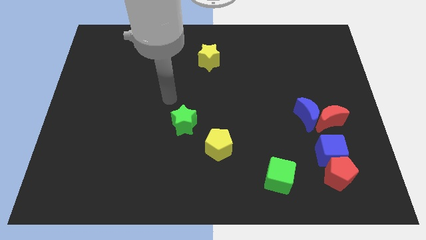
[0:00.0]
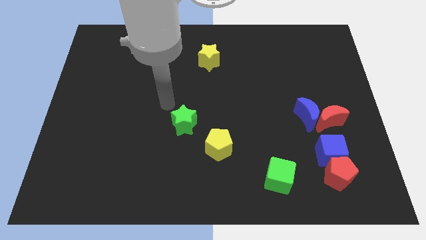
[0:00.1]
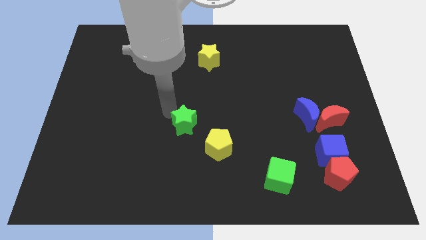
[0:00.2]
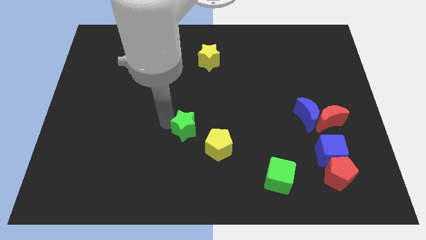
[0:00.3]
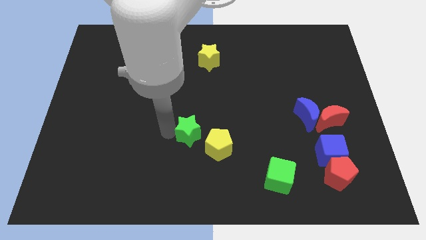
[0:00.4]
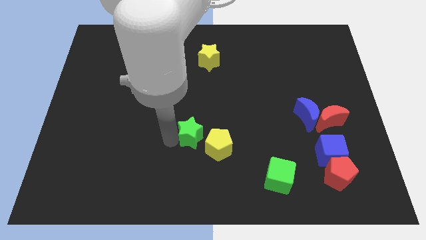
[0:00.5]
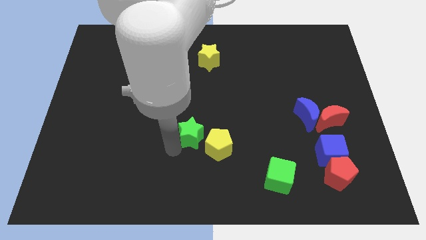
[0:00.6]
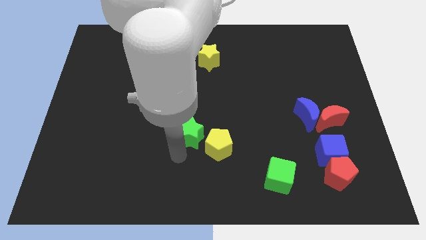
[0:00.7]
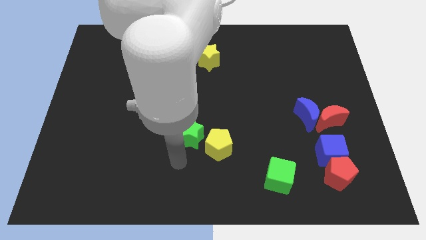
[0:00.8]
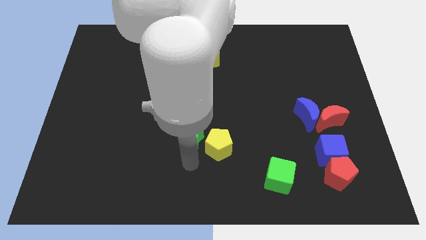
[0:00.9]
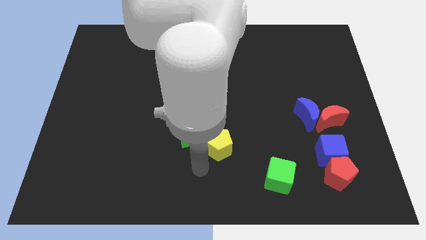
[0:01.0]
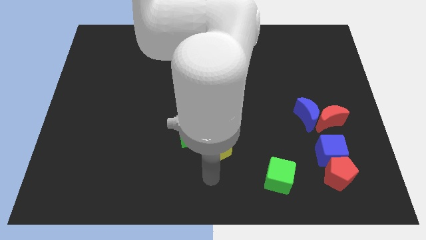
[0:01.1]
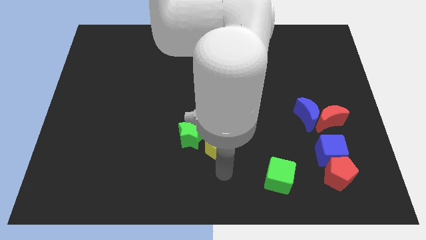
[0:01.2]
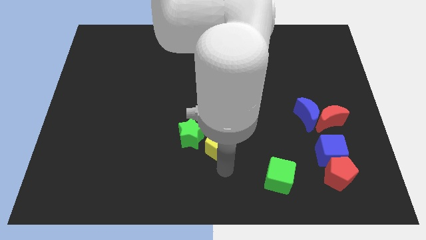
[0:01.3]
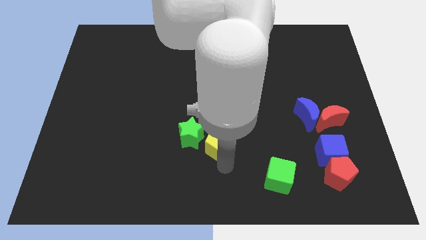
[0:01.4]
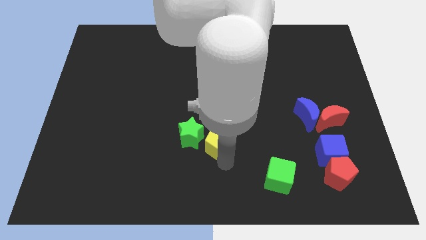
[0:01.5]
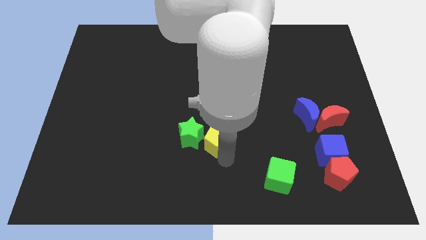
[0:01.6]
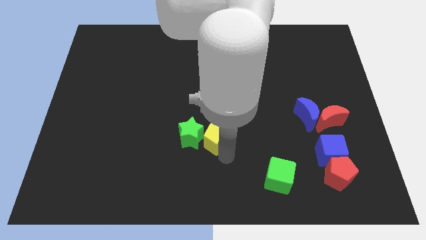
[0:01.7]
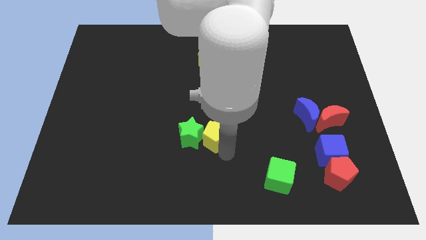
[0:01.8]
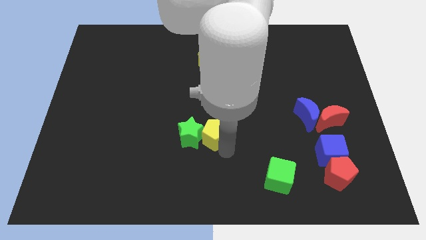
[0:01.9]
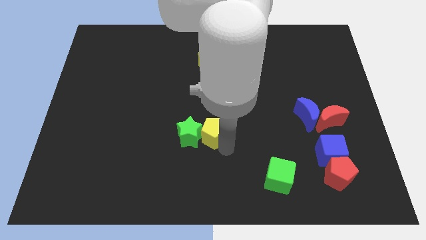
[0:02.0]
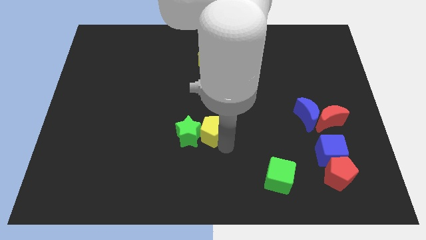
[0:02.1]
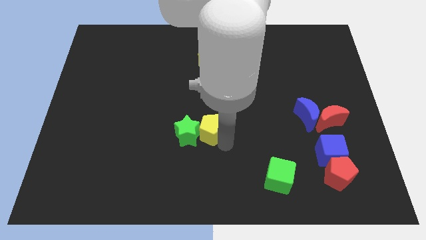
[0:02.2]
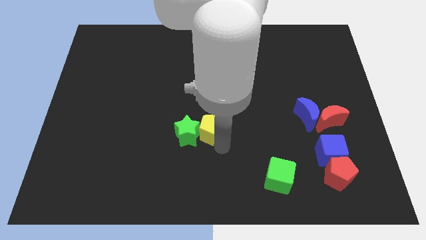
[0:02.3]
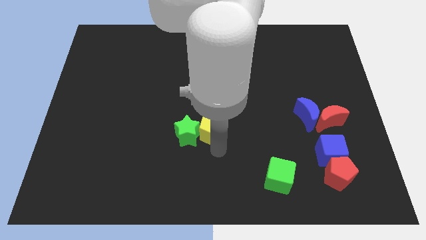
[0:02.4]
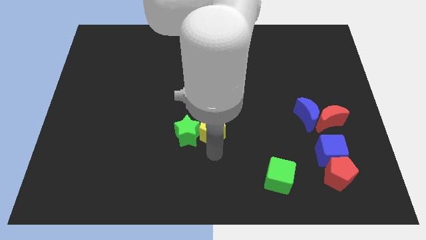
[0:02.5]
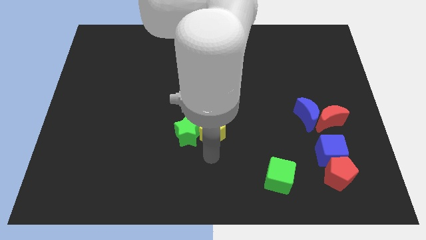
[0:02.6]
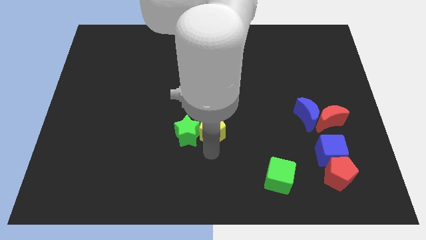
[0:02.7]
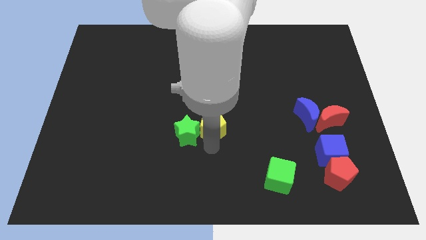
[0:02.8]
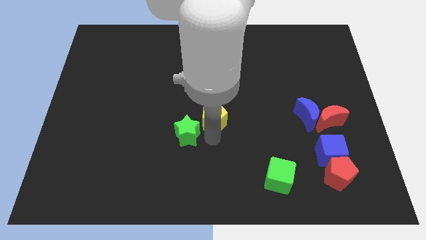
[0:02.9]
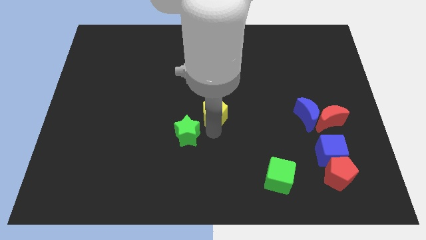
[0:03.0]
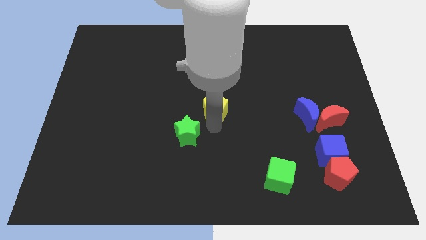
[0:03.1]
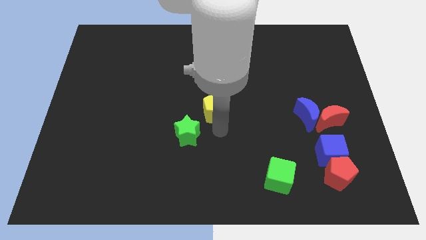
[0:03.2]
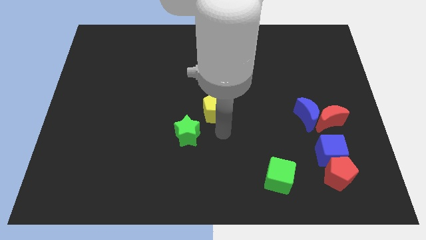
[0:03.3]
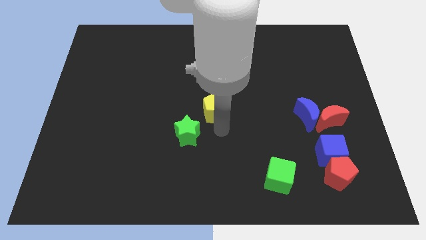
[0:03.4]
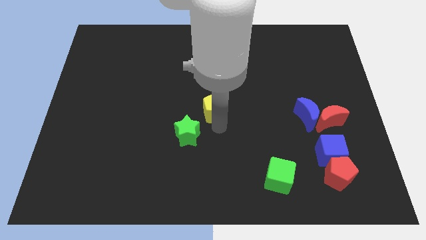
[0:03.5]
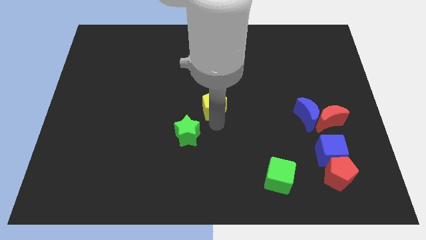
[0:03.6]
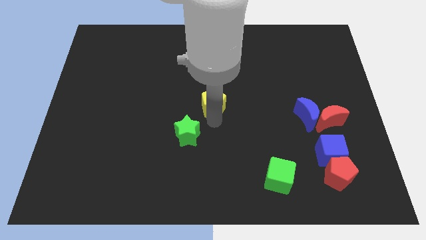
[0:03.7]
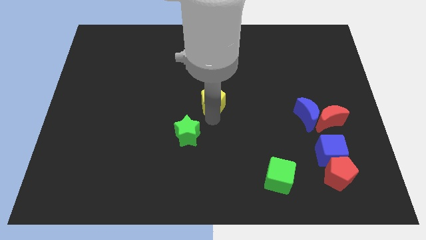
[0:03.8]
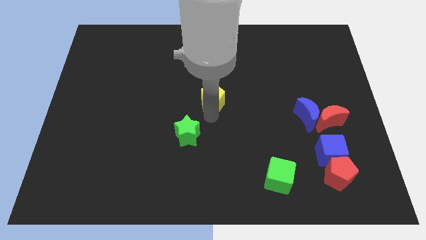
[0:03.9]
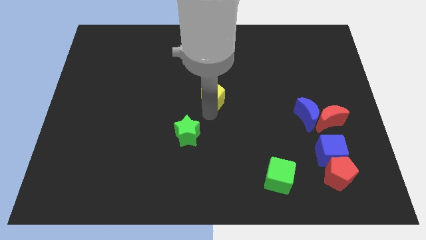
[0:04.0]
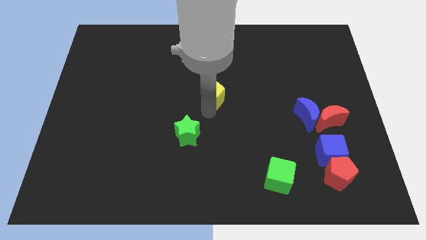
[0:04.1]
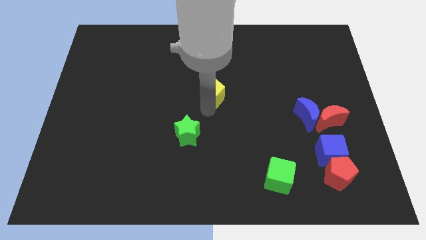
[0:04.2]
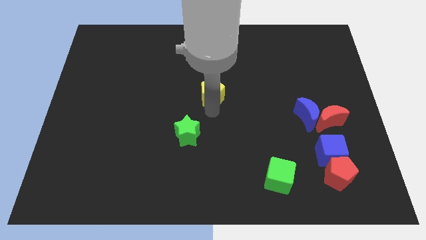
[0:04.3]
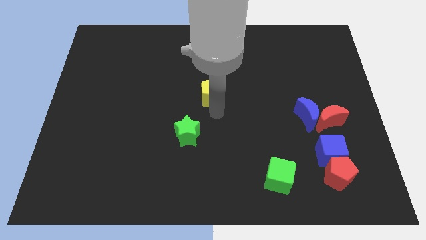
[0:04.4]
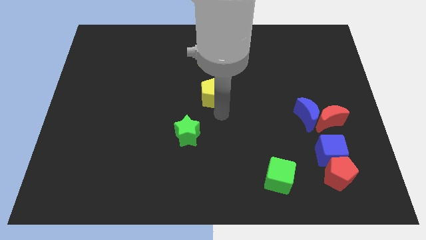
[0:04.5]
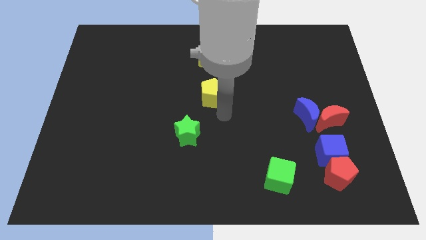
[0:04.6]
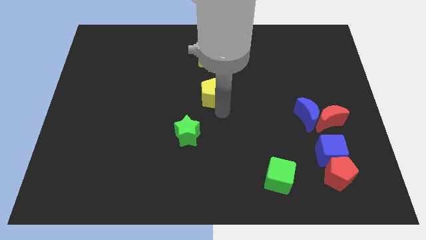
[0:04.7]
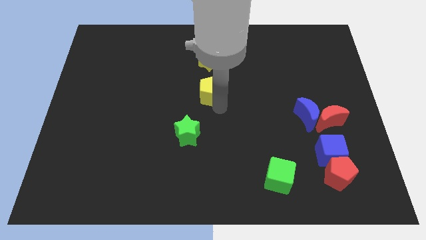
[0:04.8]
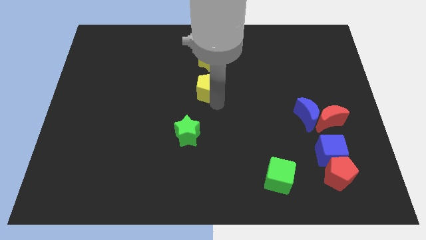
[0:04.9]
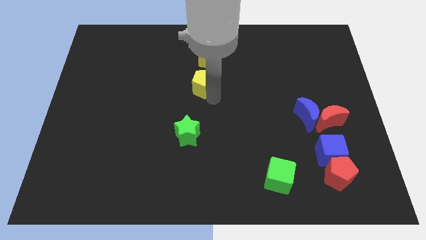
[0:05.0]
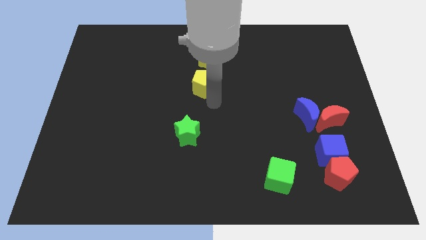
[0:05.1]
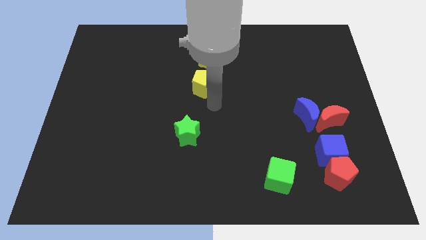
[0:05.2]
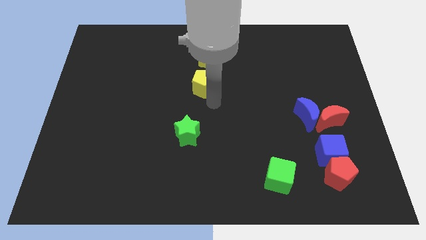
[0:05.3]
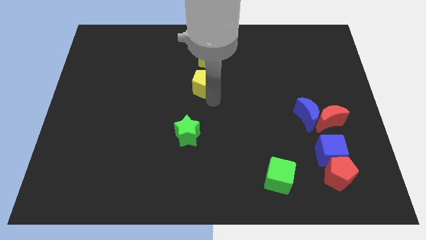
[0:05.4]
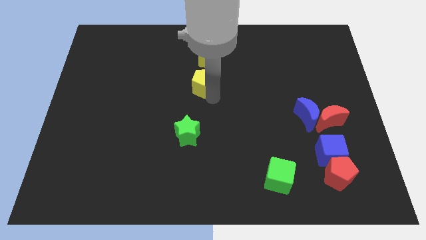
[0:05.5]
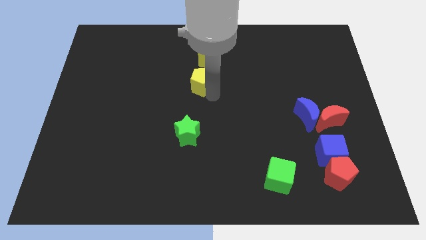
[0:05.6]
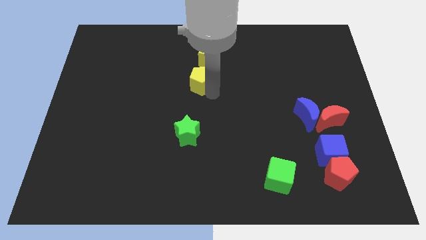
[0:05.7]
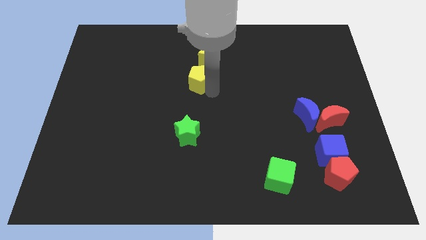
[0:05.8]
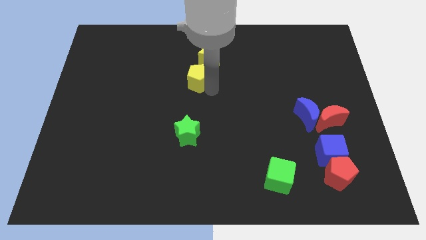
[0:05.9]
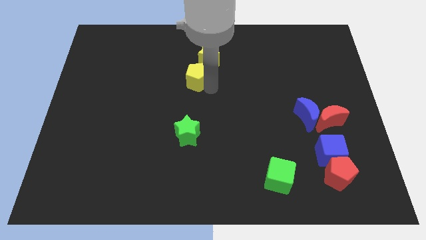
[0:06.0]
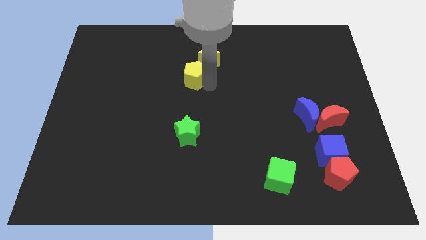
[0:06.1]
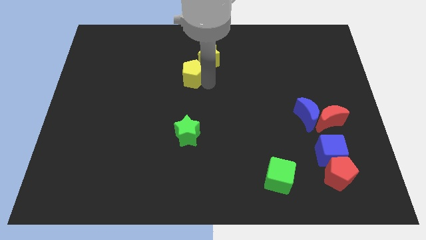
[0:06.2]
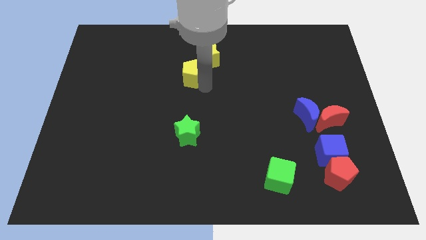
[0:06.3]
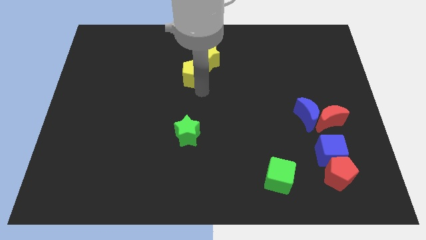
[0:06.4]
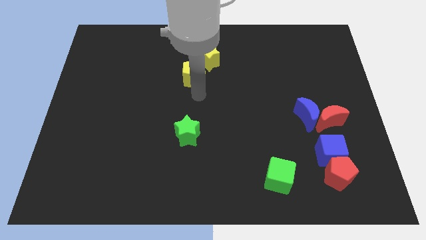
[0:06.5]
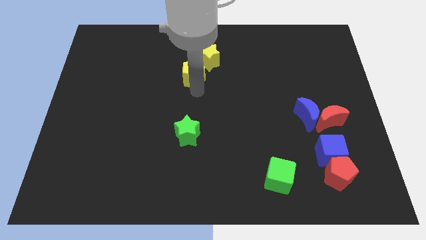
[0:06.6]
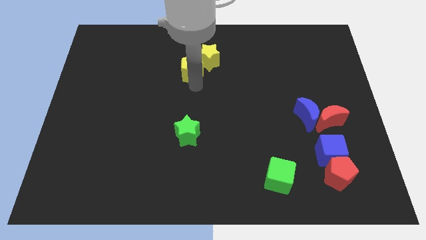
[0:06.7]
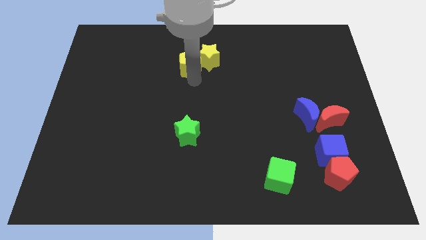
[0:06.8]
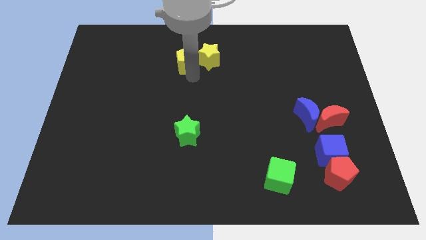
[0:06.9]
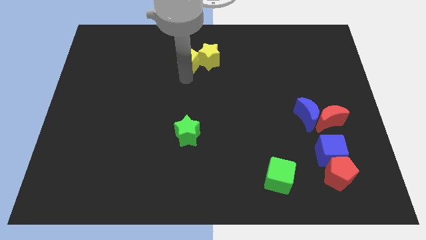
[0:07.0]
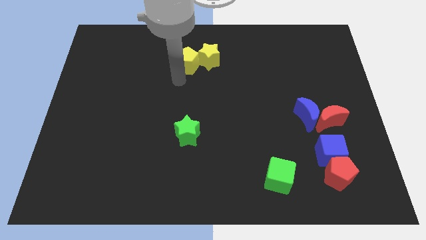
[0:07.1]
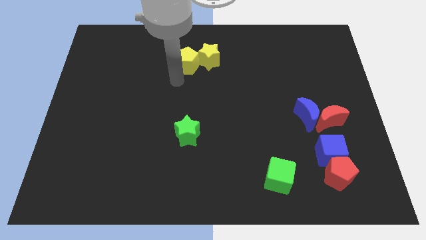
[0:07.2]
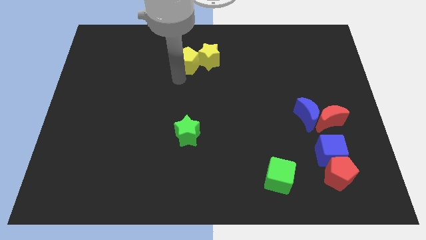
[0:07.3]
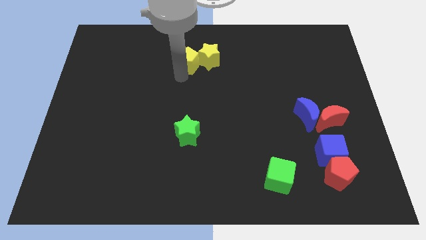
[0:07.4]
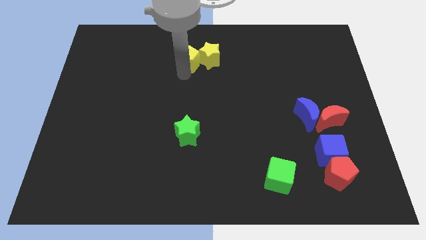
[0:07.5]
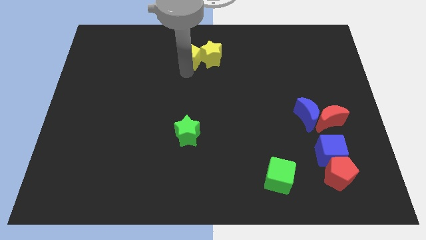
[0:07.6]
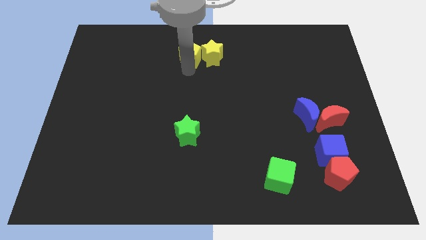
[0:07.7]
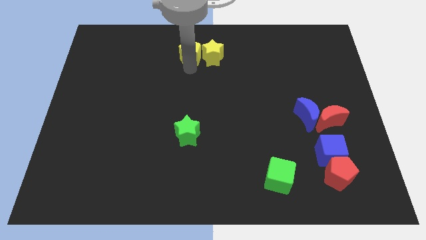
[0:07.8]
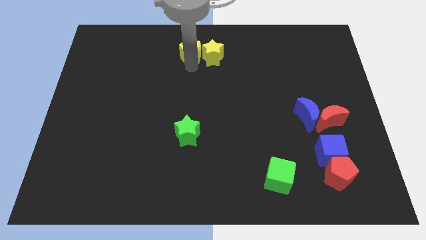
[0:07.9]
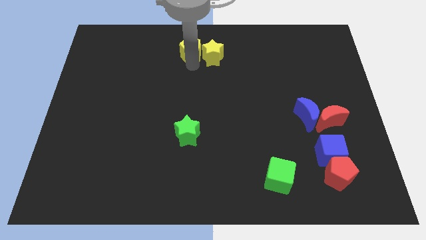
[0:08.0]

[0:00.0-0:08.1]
put the yellow pentagon to the towards your base
